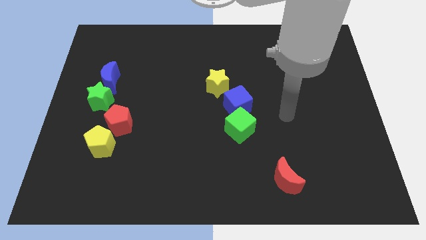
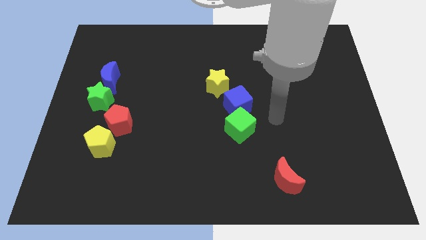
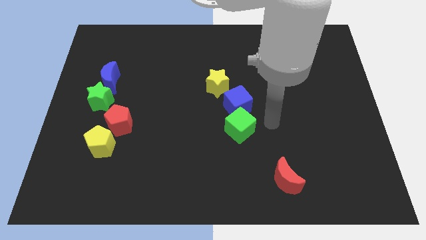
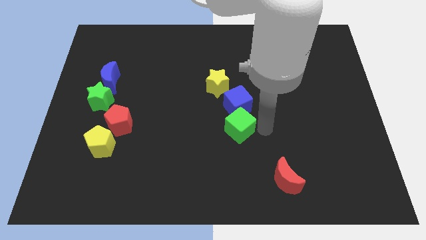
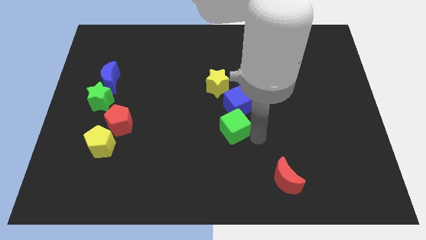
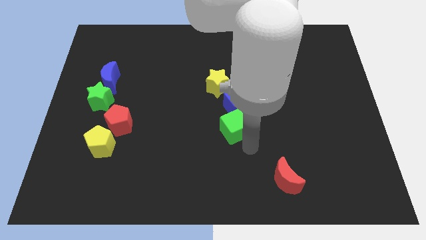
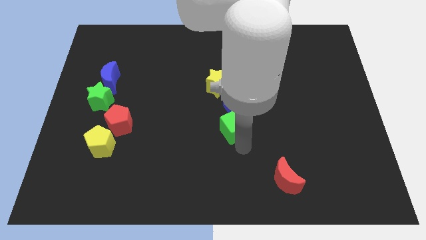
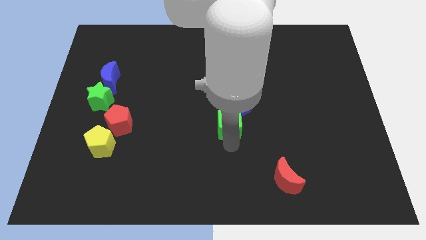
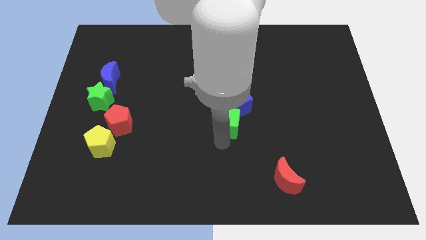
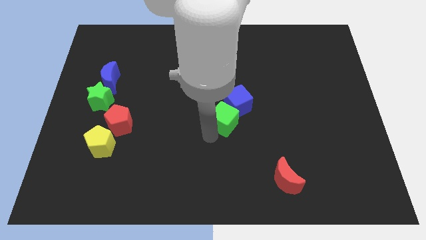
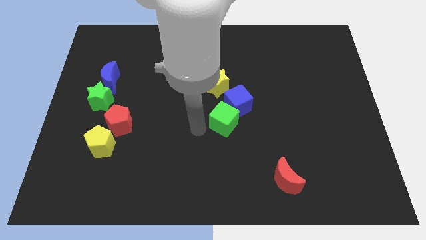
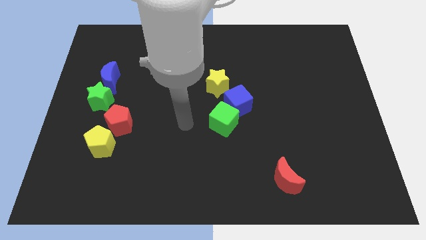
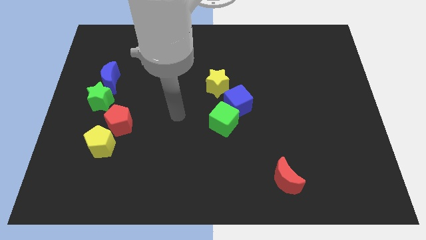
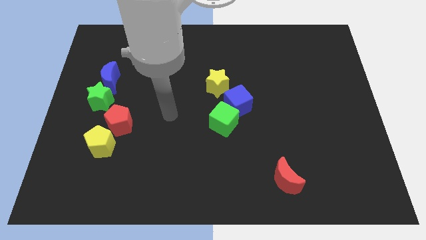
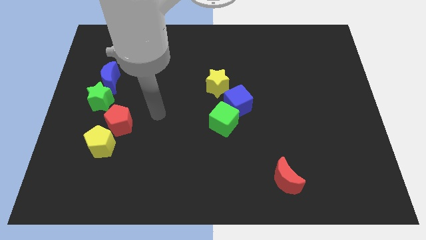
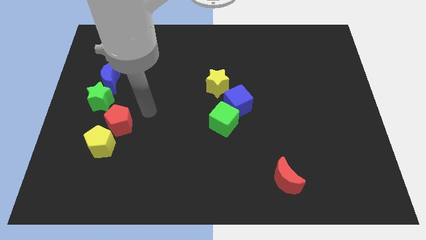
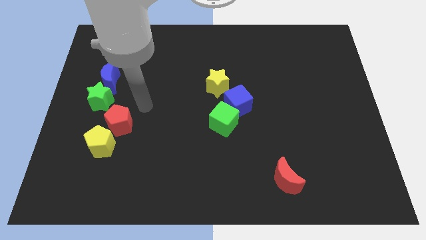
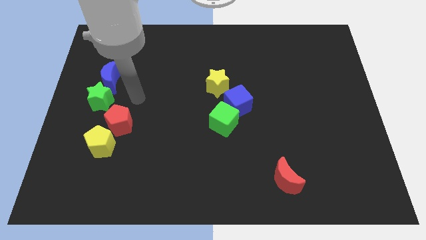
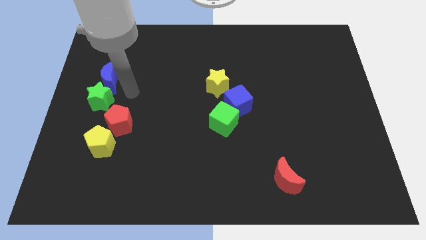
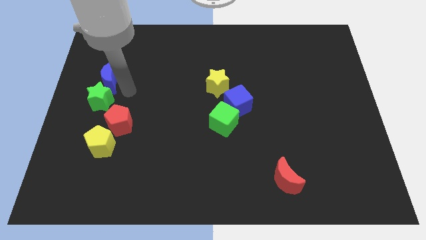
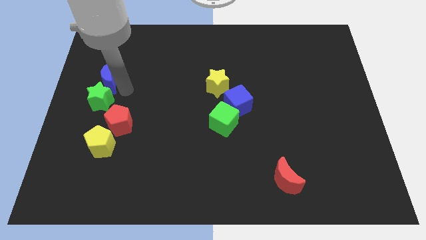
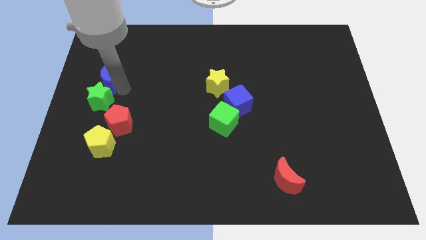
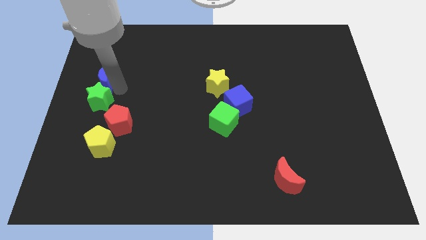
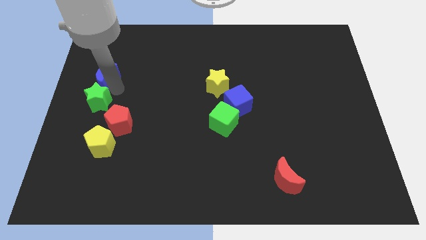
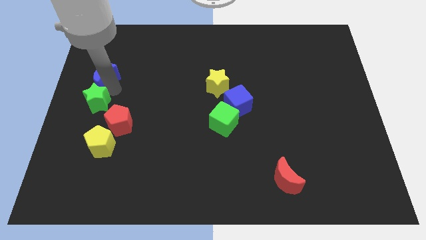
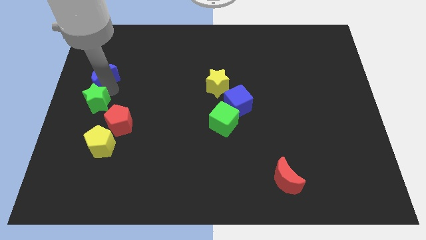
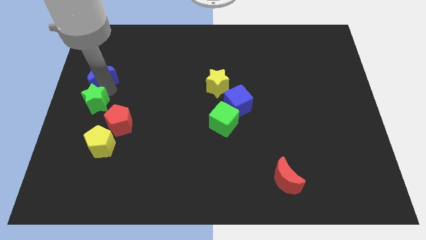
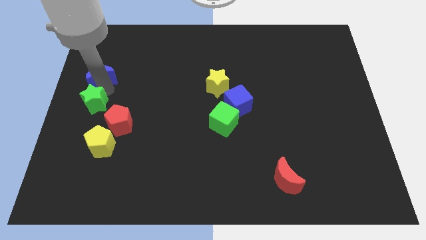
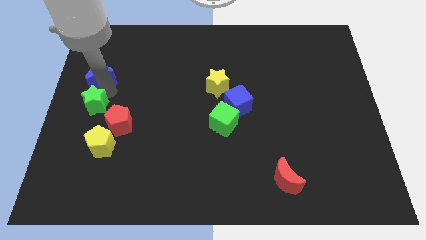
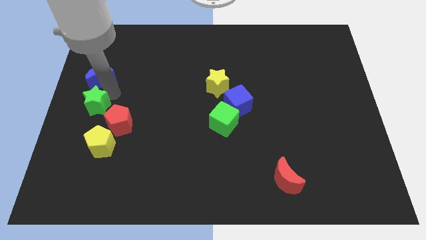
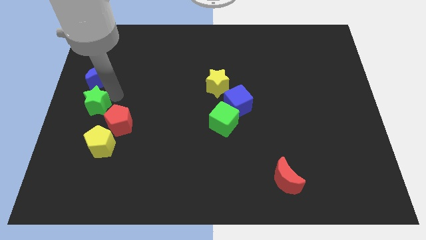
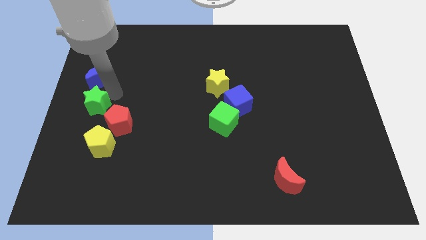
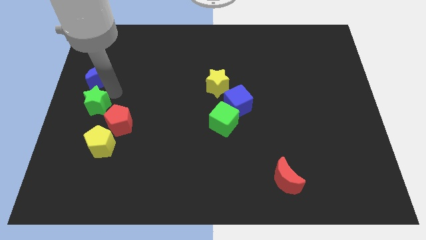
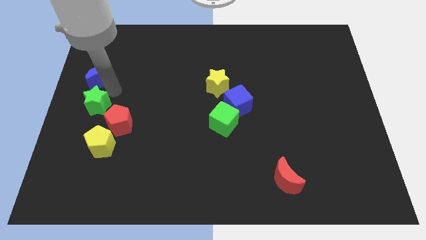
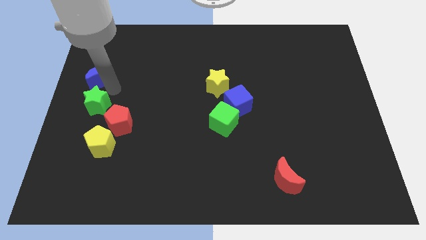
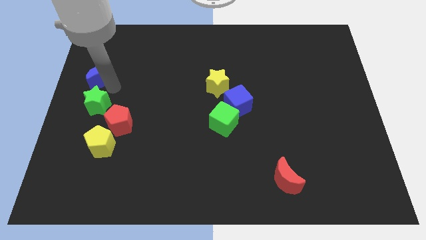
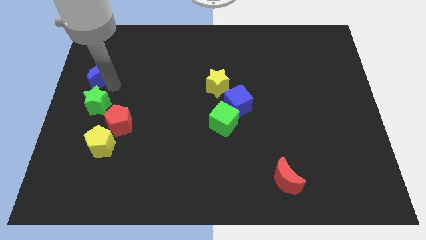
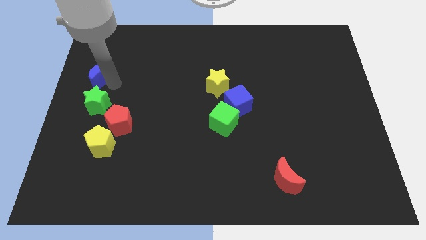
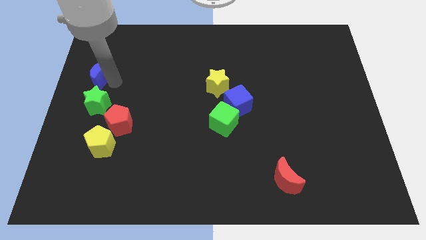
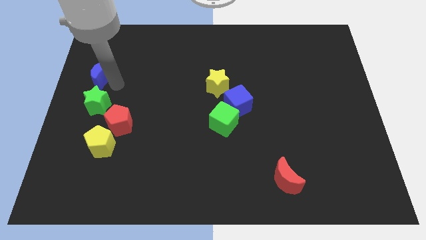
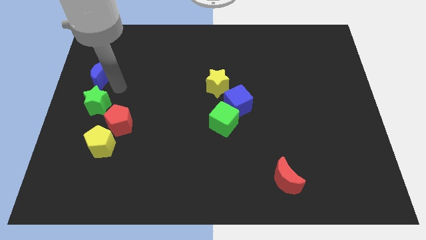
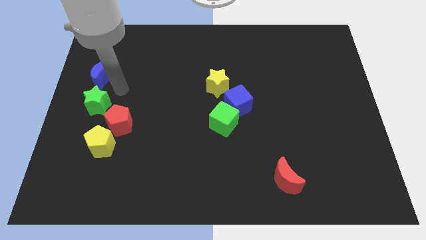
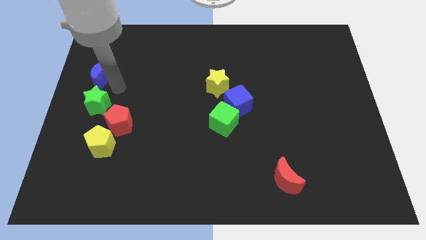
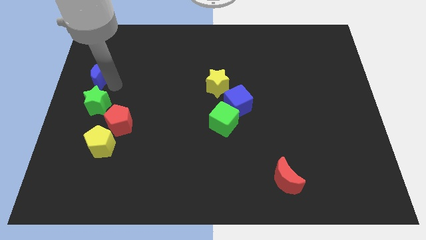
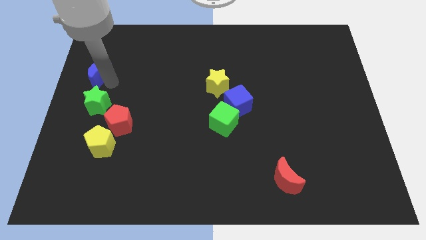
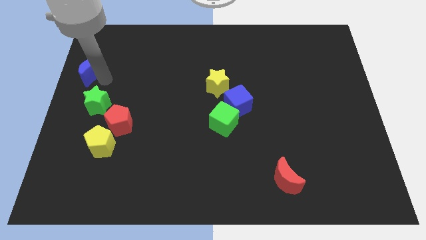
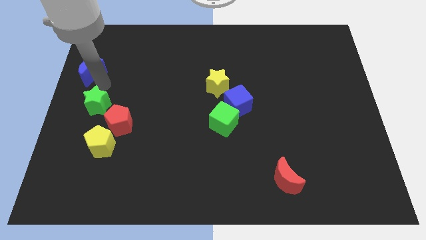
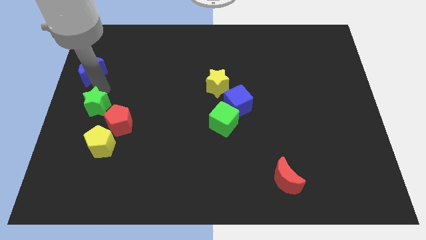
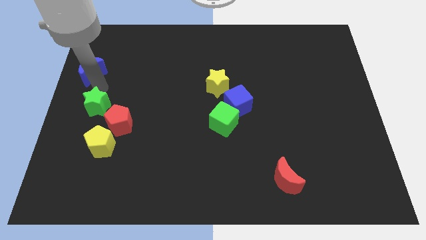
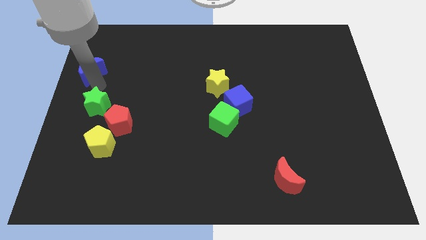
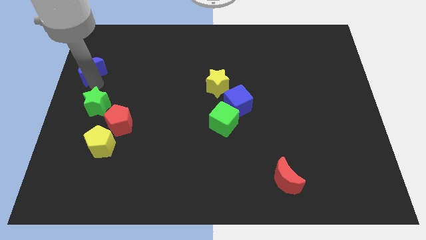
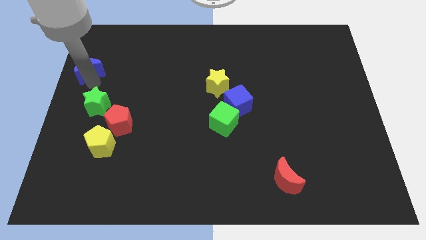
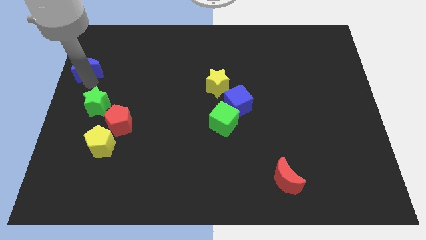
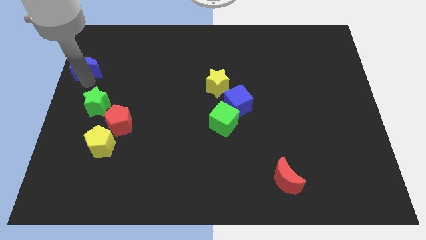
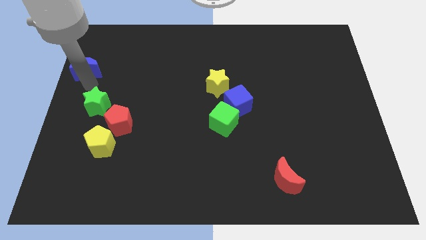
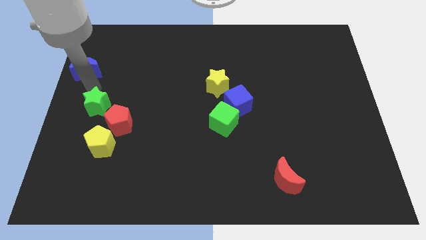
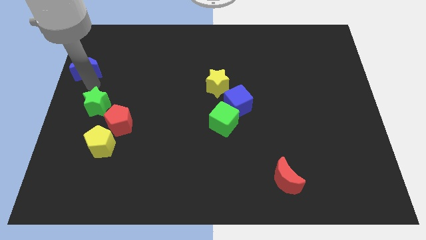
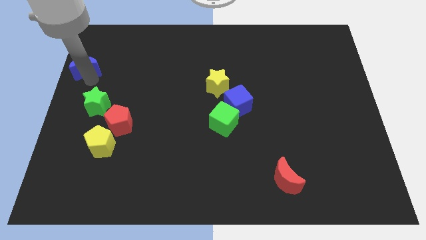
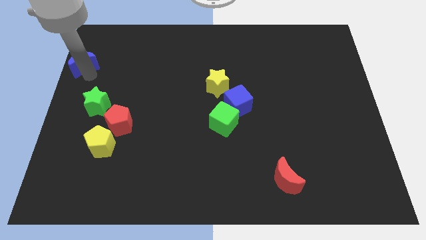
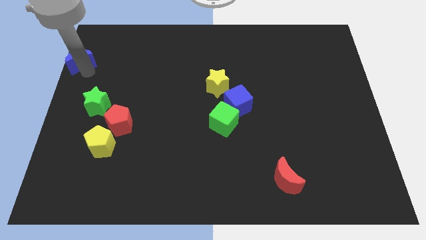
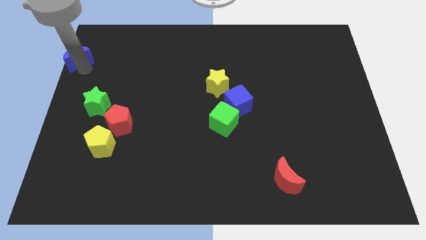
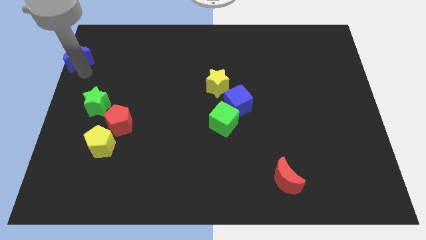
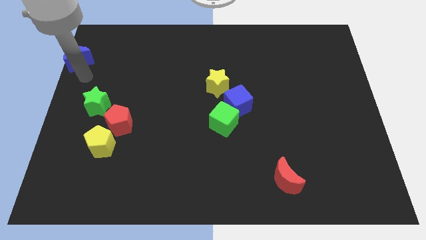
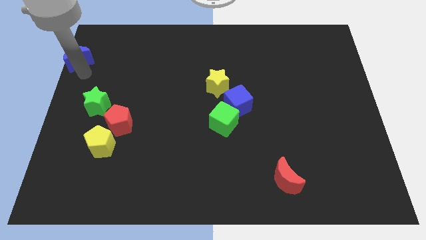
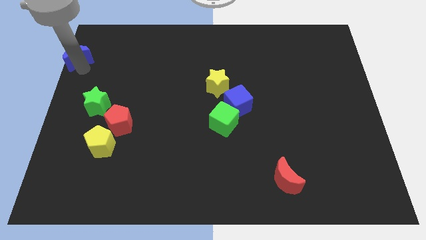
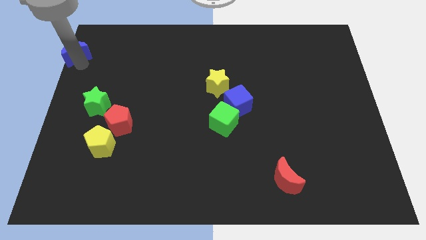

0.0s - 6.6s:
slide the blue moon to the upper left corner
